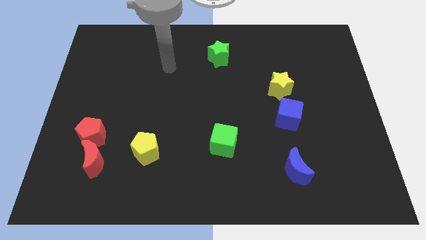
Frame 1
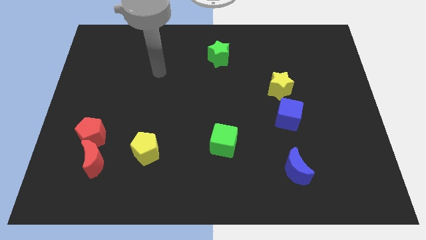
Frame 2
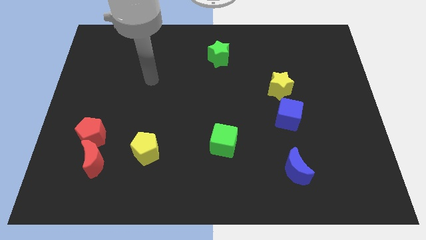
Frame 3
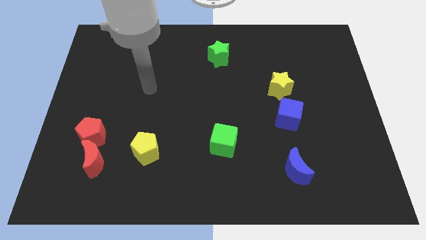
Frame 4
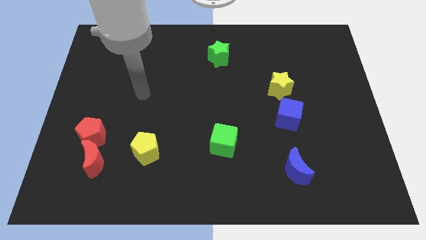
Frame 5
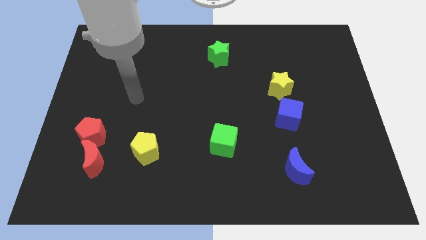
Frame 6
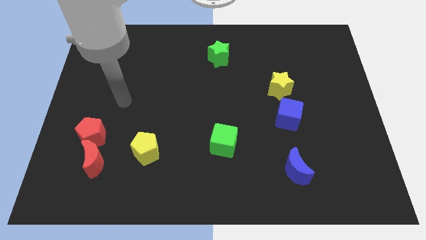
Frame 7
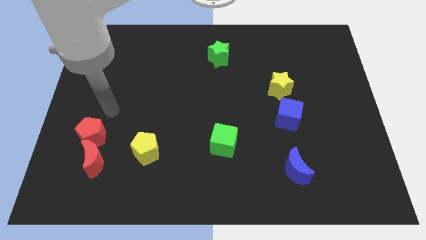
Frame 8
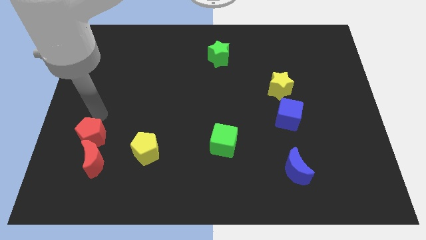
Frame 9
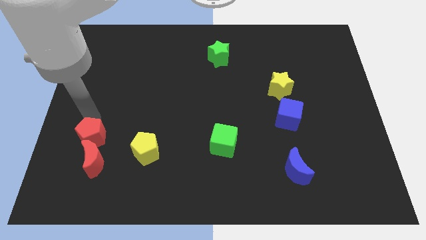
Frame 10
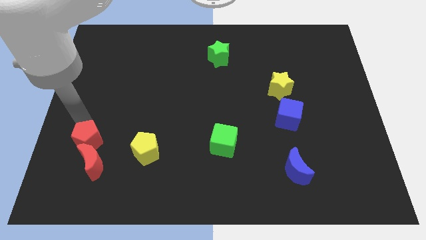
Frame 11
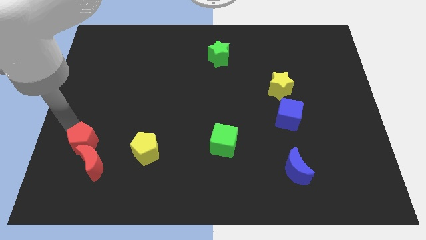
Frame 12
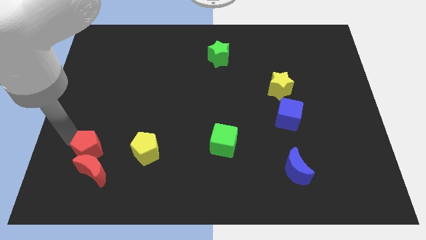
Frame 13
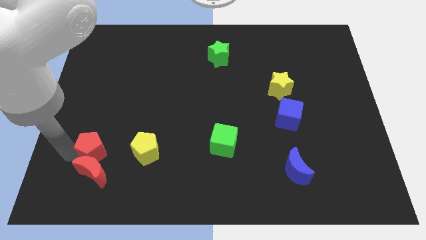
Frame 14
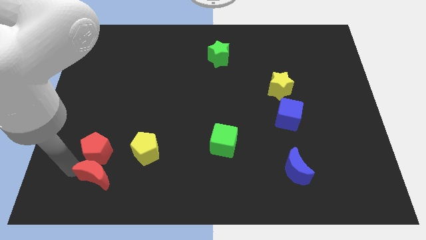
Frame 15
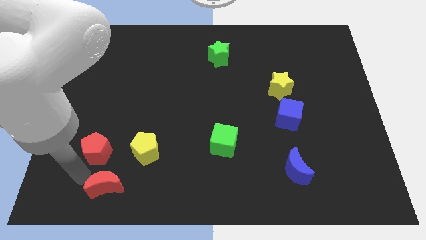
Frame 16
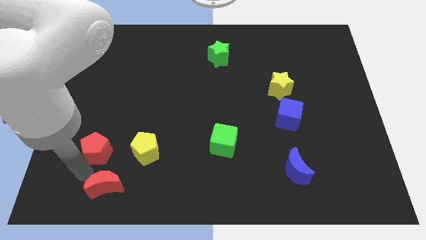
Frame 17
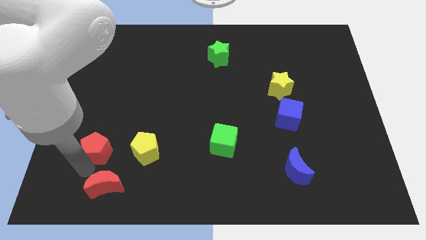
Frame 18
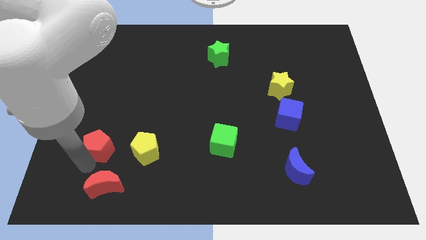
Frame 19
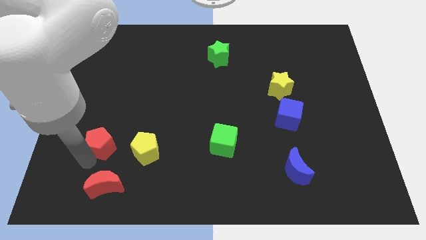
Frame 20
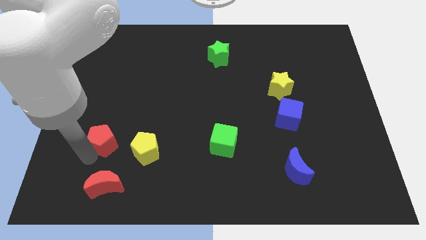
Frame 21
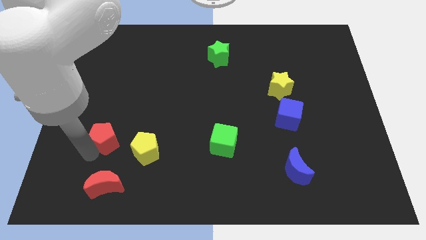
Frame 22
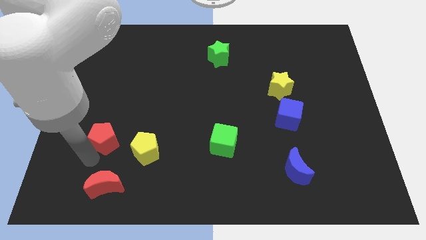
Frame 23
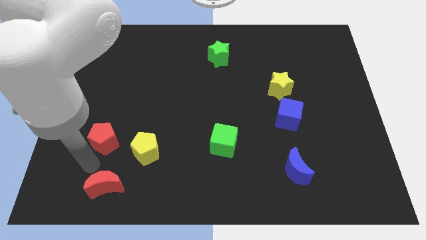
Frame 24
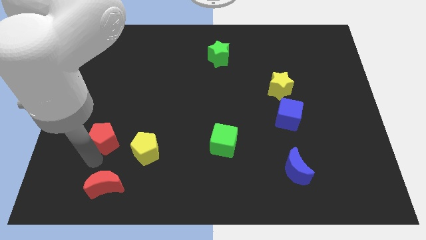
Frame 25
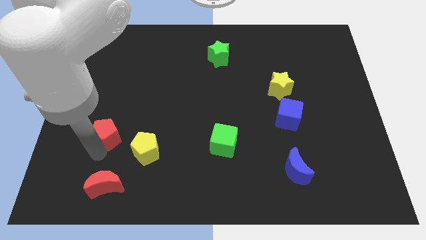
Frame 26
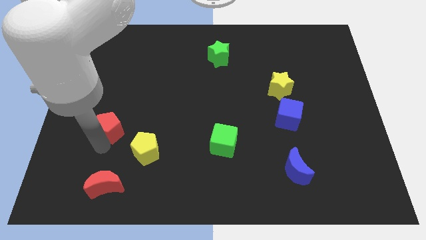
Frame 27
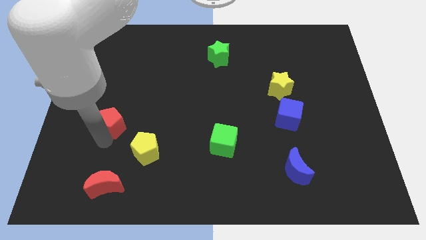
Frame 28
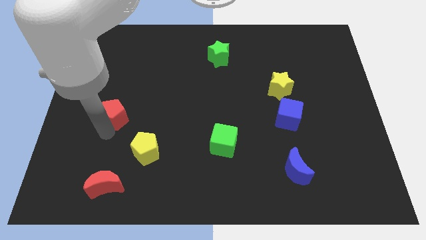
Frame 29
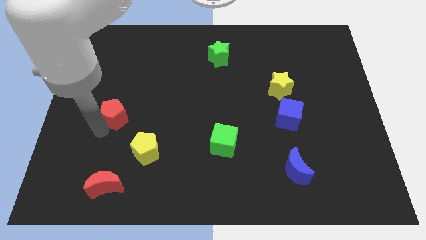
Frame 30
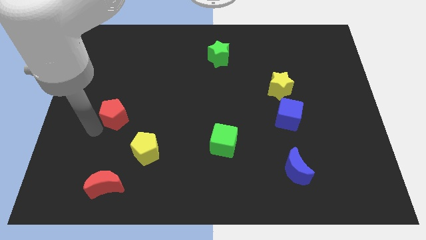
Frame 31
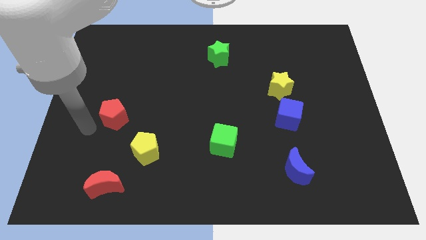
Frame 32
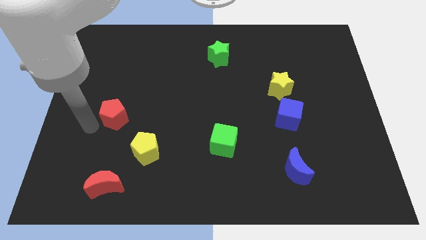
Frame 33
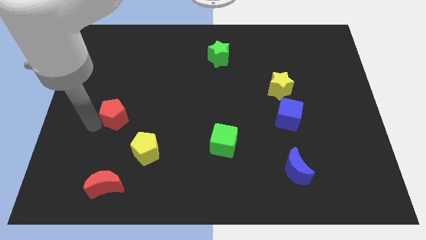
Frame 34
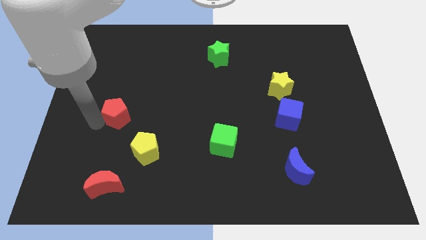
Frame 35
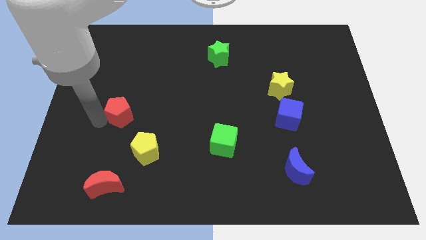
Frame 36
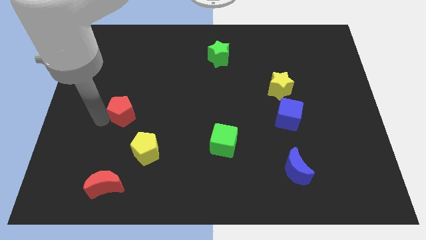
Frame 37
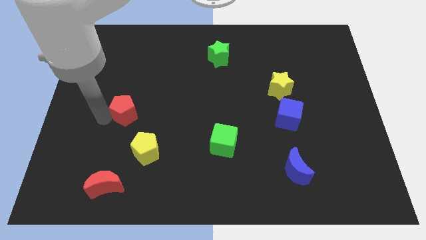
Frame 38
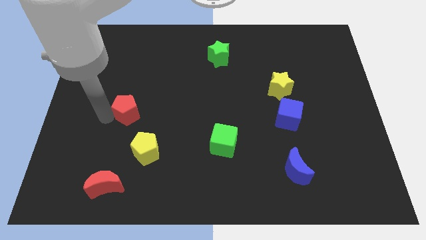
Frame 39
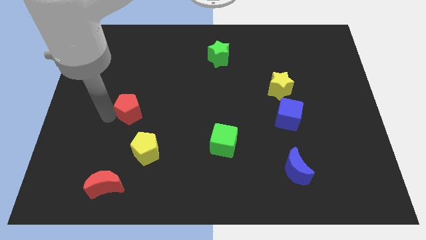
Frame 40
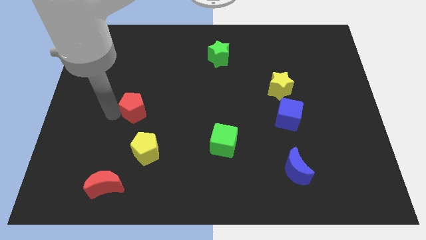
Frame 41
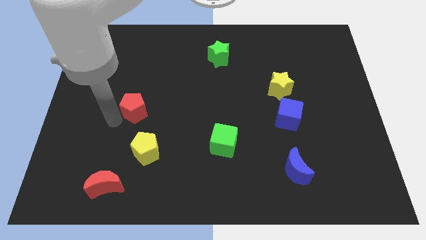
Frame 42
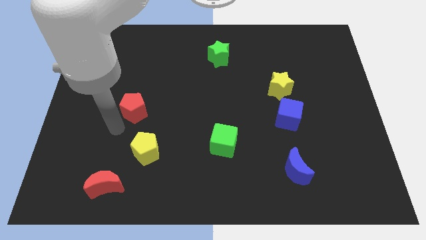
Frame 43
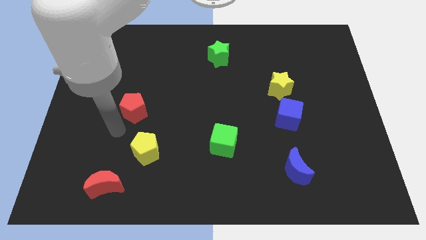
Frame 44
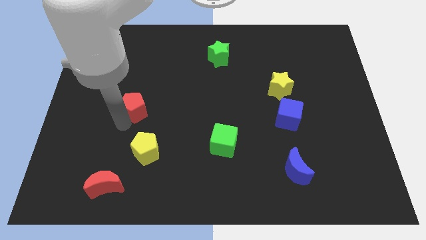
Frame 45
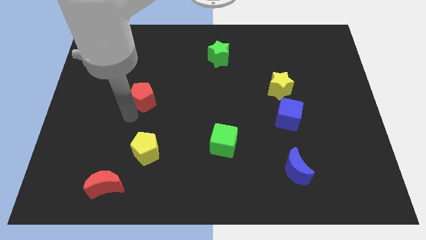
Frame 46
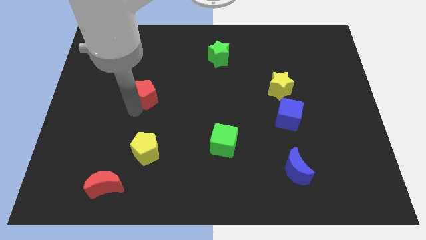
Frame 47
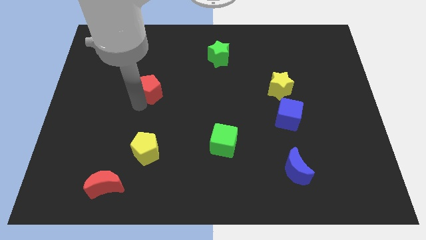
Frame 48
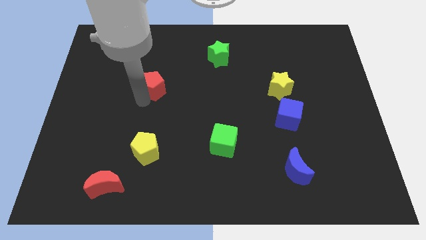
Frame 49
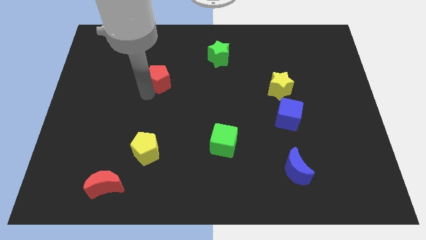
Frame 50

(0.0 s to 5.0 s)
slide the red pentagon upwards and to the right

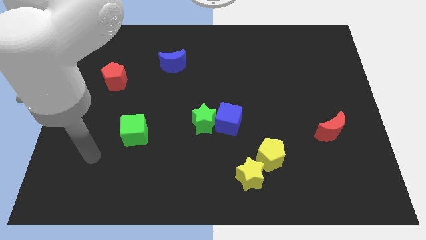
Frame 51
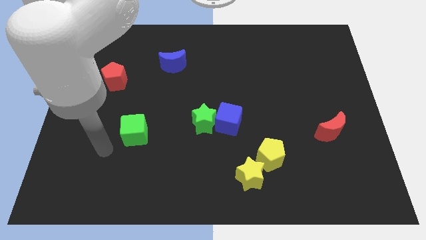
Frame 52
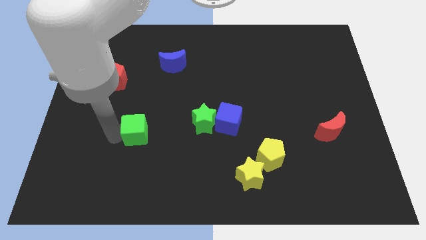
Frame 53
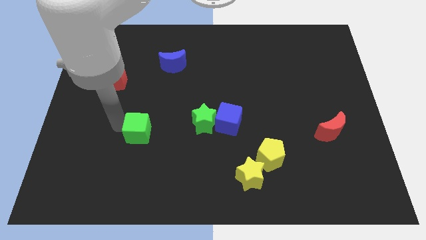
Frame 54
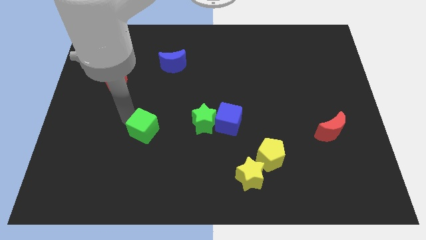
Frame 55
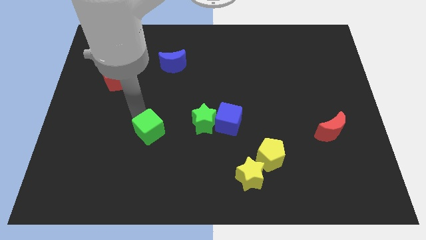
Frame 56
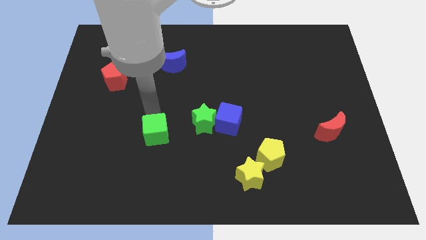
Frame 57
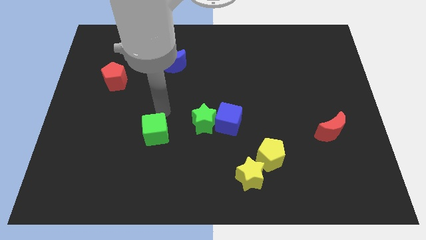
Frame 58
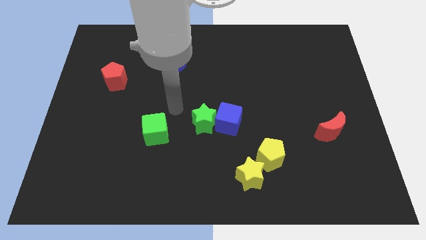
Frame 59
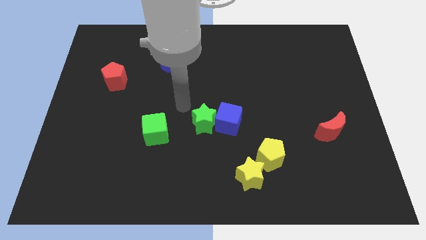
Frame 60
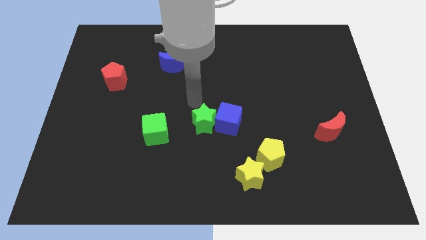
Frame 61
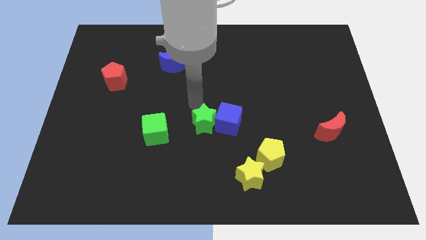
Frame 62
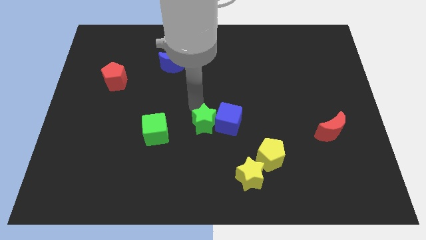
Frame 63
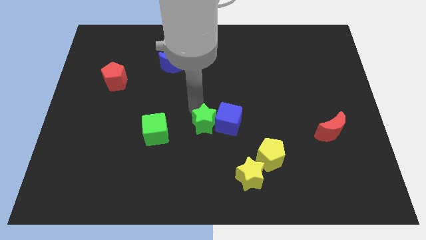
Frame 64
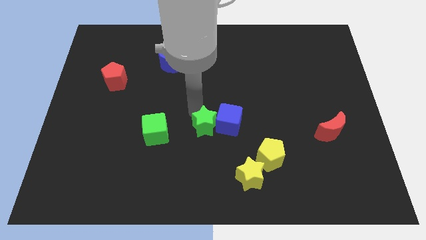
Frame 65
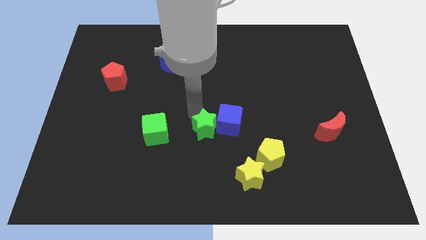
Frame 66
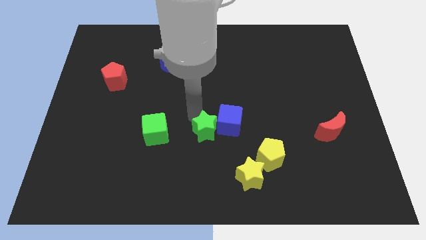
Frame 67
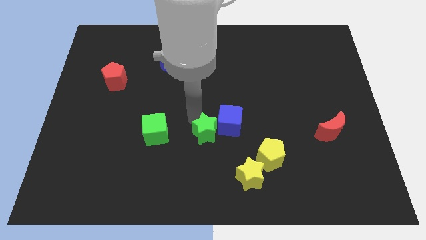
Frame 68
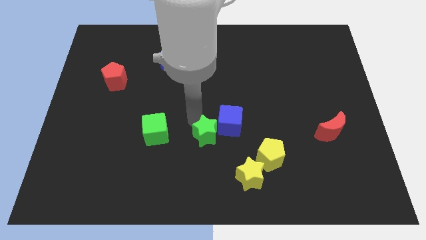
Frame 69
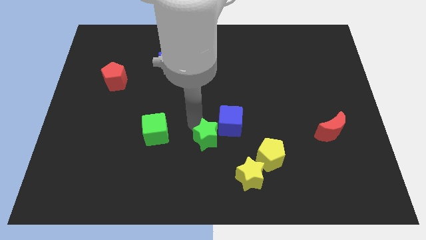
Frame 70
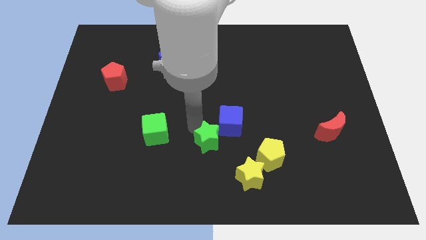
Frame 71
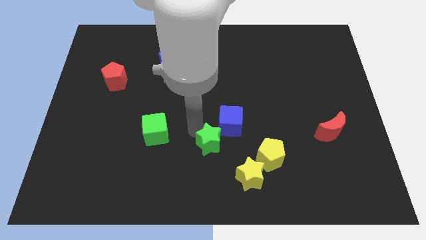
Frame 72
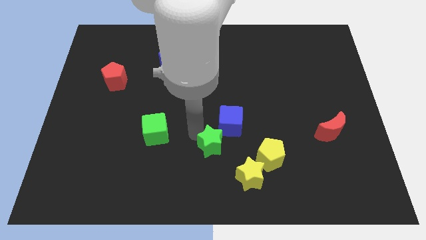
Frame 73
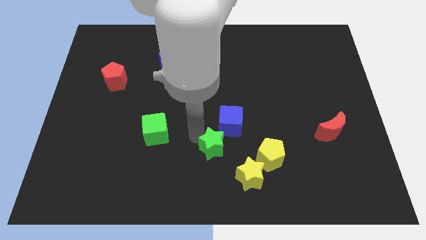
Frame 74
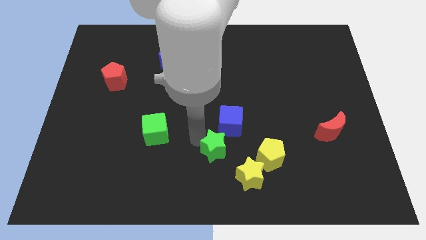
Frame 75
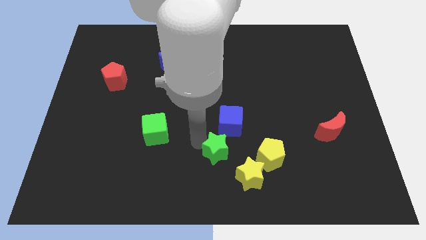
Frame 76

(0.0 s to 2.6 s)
slide the green star down and then right somewhat

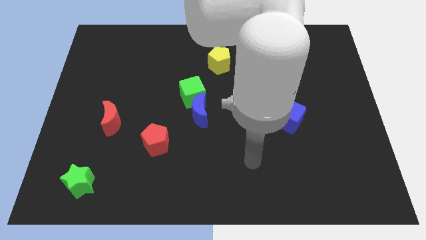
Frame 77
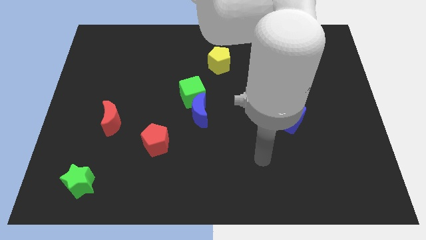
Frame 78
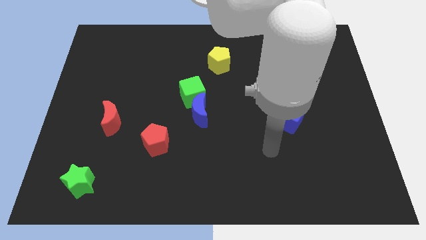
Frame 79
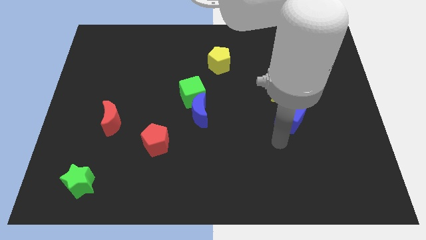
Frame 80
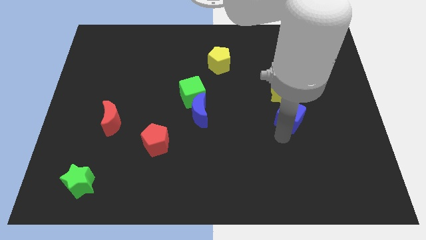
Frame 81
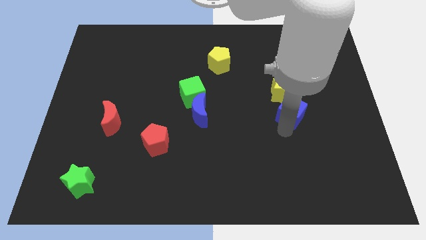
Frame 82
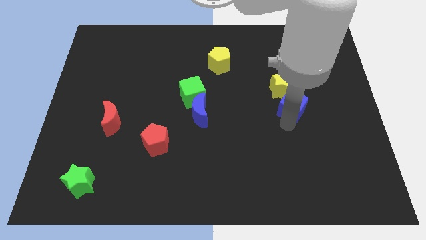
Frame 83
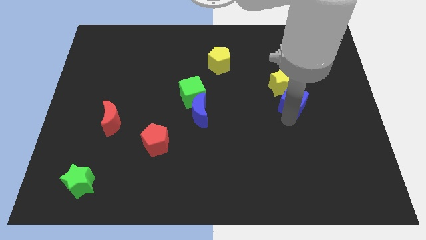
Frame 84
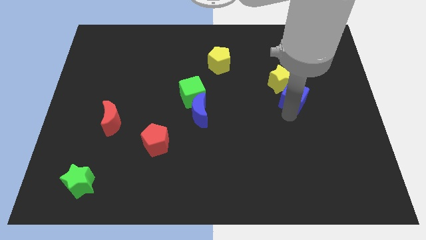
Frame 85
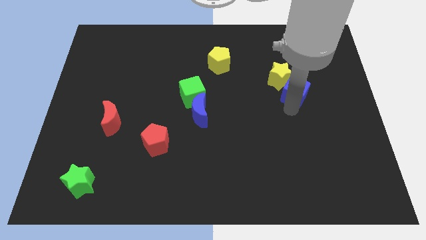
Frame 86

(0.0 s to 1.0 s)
push the blue cube upwards a little bit
